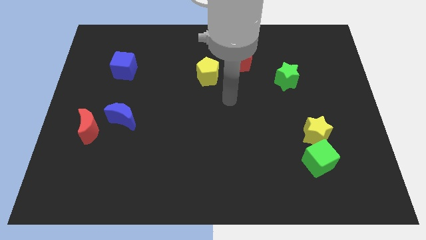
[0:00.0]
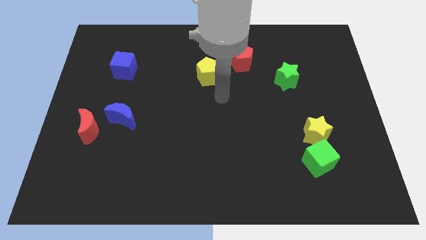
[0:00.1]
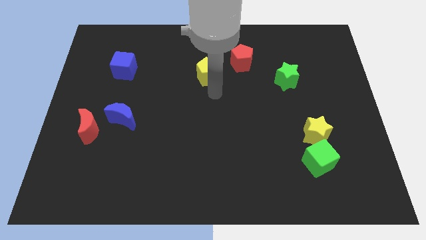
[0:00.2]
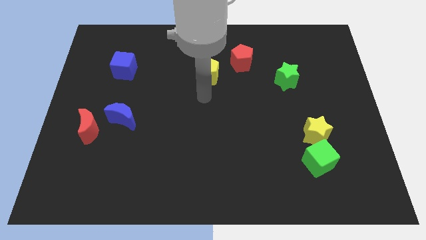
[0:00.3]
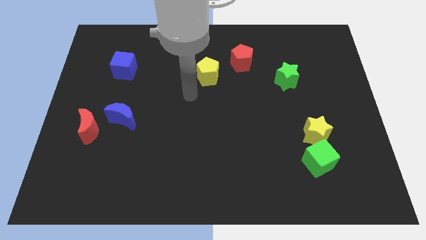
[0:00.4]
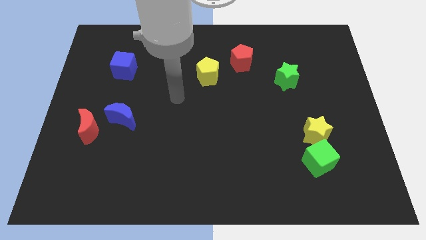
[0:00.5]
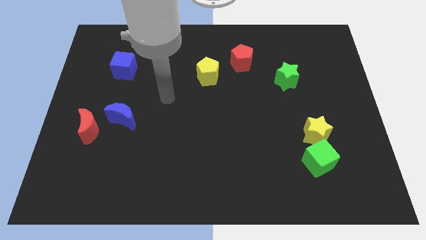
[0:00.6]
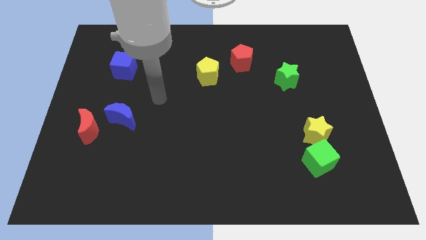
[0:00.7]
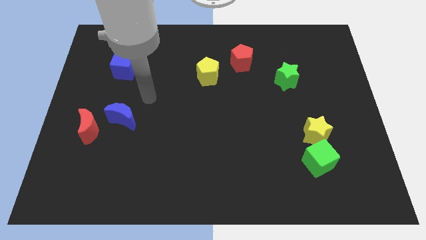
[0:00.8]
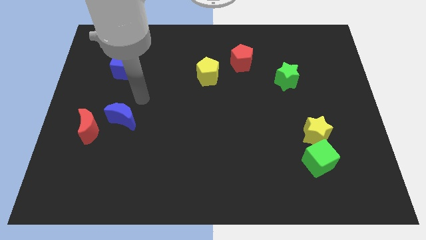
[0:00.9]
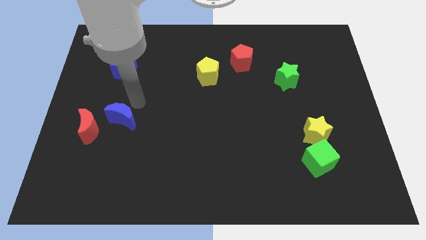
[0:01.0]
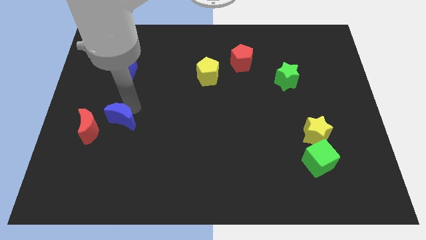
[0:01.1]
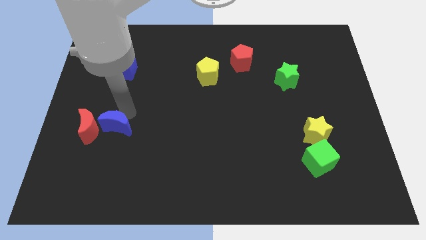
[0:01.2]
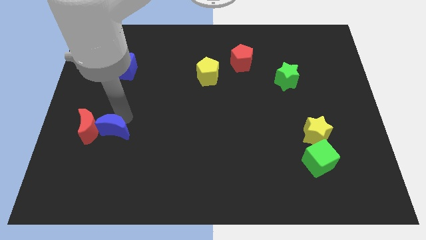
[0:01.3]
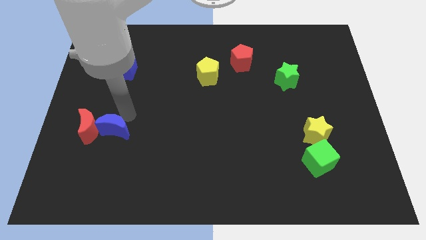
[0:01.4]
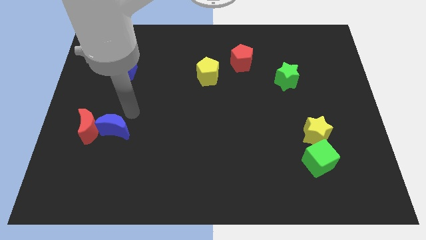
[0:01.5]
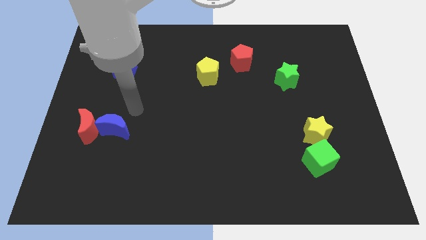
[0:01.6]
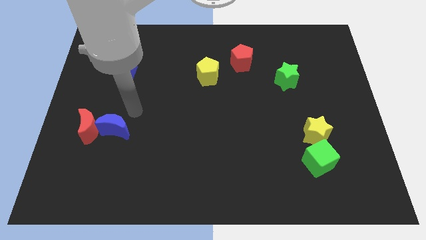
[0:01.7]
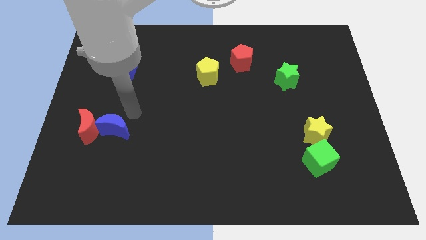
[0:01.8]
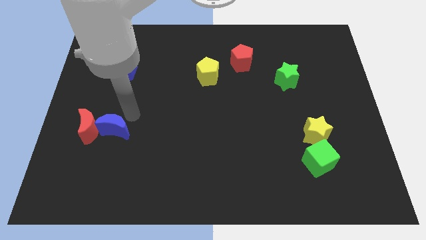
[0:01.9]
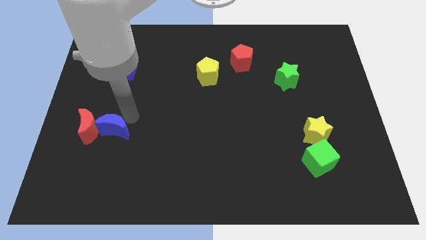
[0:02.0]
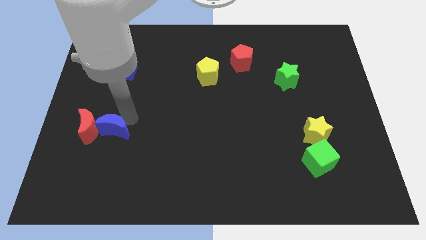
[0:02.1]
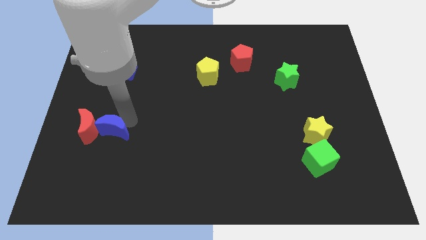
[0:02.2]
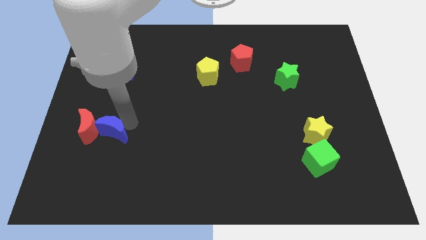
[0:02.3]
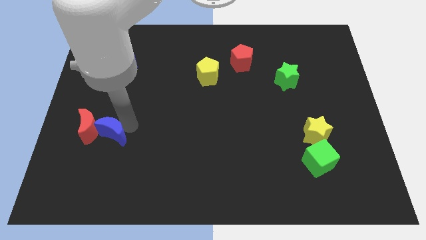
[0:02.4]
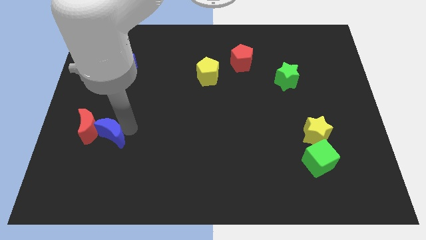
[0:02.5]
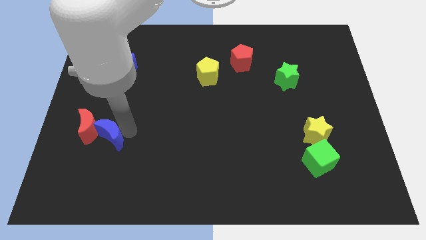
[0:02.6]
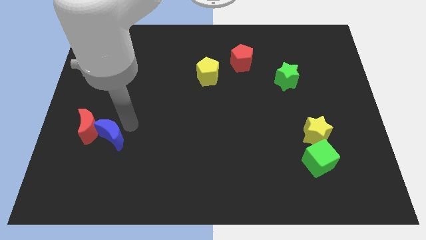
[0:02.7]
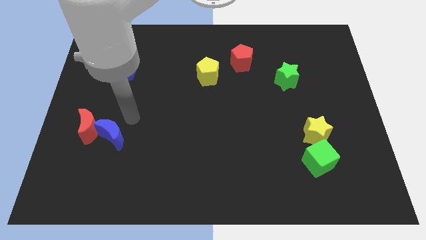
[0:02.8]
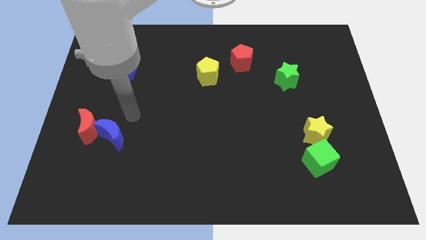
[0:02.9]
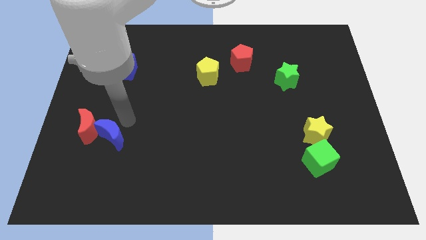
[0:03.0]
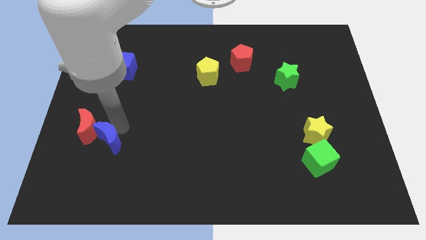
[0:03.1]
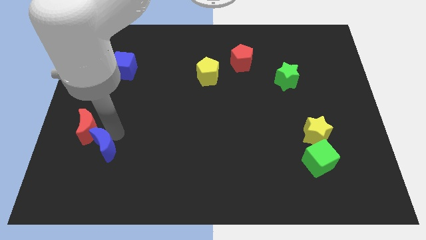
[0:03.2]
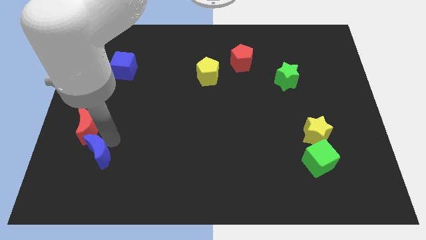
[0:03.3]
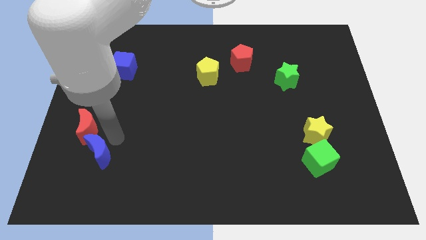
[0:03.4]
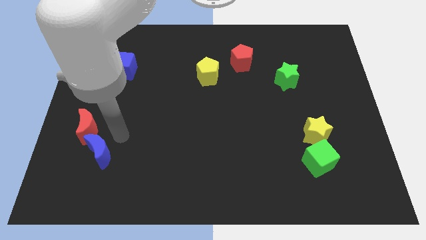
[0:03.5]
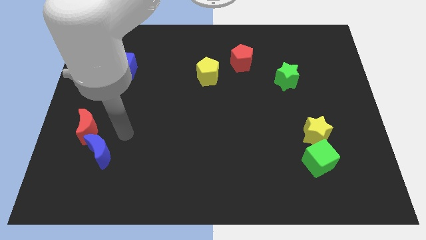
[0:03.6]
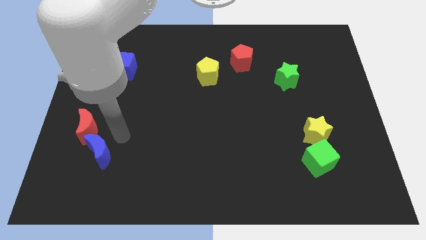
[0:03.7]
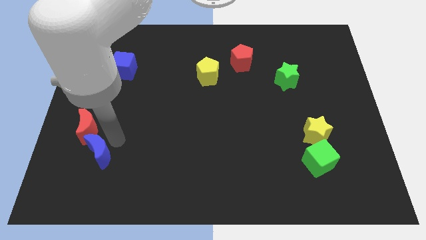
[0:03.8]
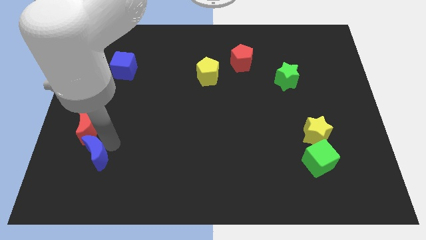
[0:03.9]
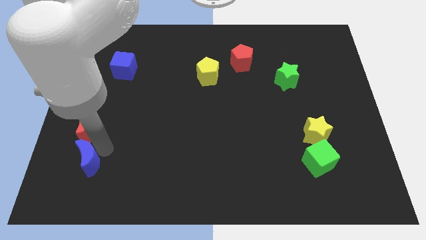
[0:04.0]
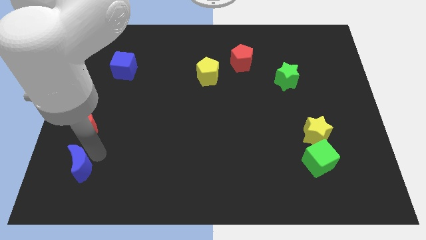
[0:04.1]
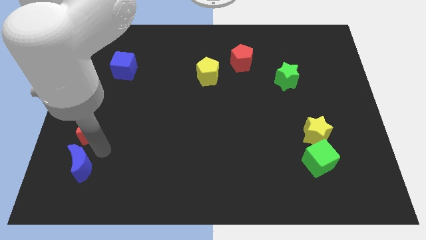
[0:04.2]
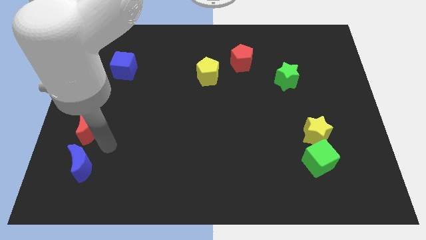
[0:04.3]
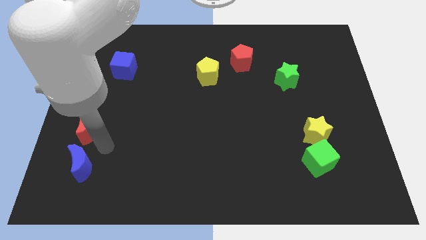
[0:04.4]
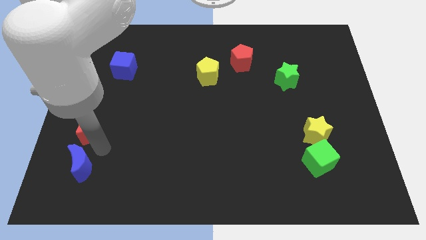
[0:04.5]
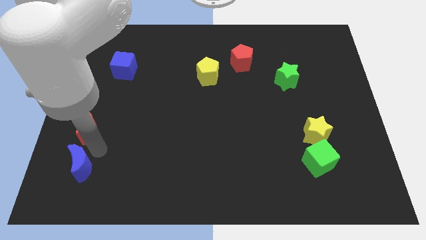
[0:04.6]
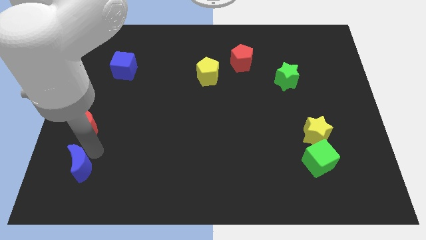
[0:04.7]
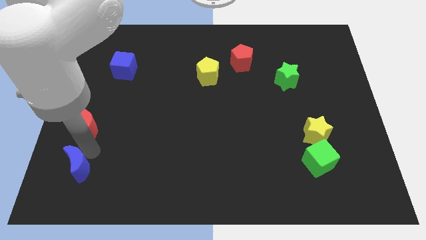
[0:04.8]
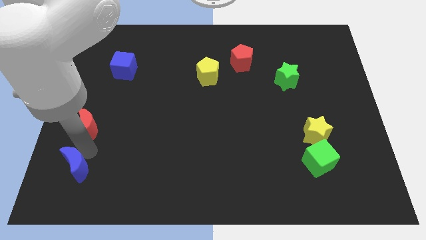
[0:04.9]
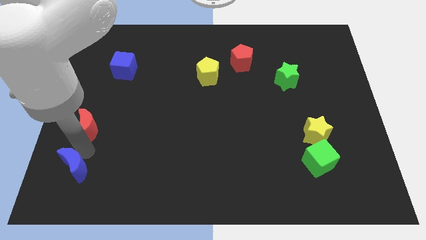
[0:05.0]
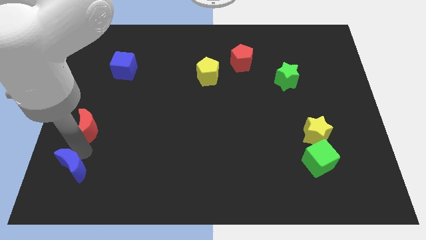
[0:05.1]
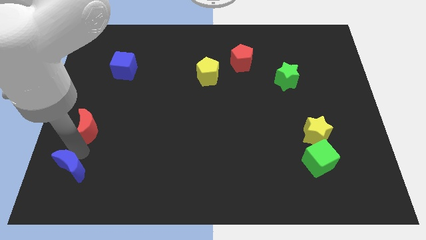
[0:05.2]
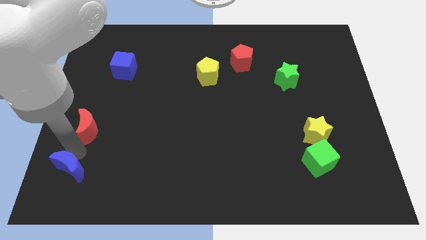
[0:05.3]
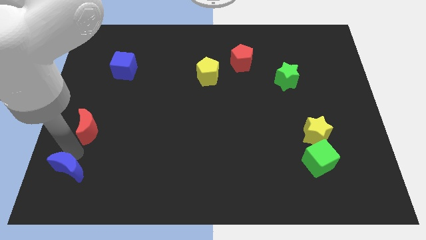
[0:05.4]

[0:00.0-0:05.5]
put the blue moon to the bottom left of the board
